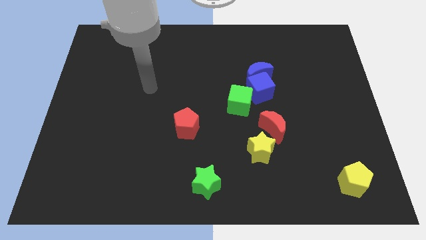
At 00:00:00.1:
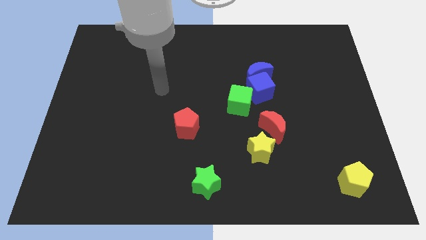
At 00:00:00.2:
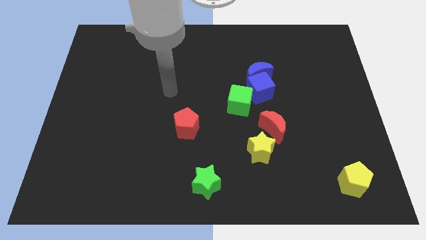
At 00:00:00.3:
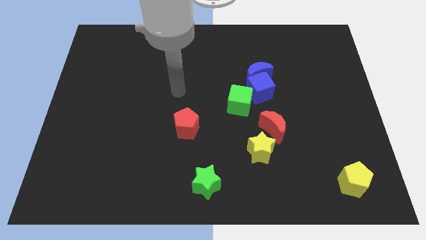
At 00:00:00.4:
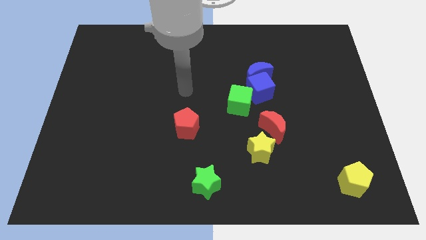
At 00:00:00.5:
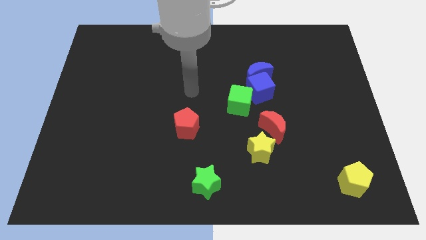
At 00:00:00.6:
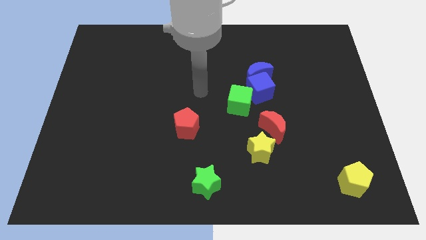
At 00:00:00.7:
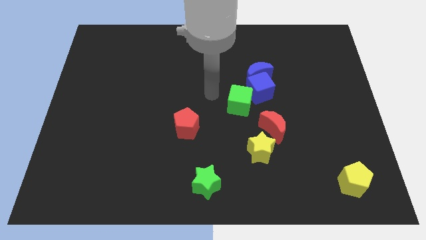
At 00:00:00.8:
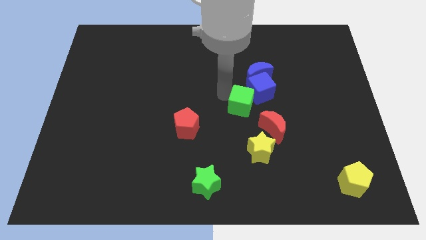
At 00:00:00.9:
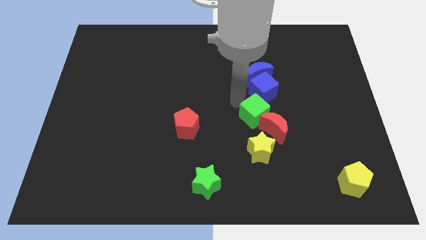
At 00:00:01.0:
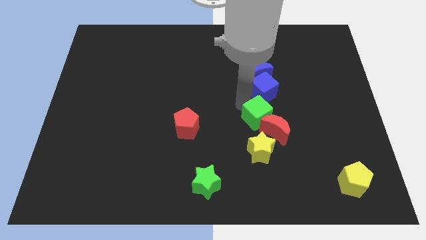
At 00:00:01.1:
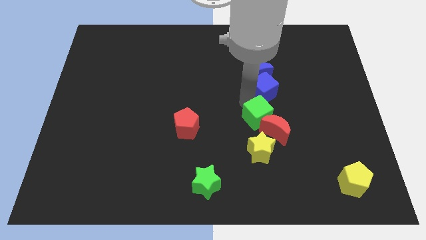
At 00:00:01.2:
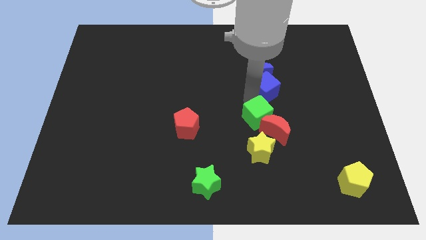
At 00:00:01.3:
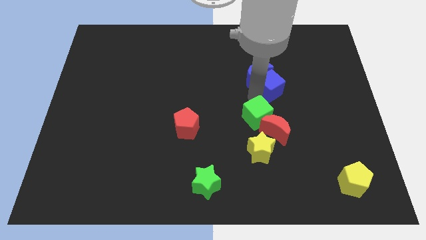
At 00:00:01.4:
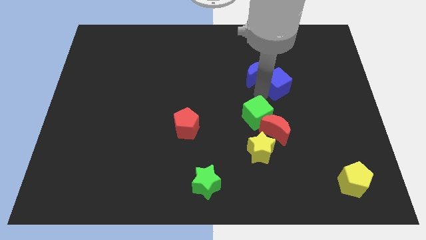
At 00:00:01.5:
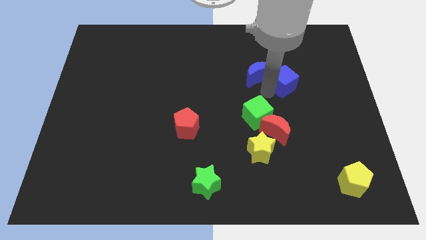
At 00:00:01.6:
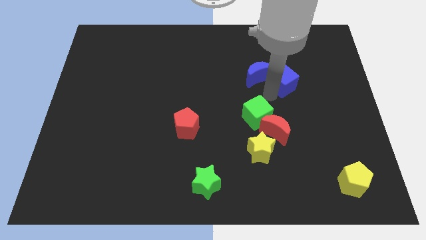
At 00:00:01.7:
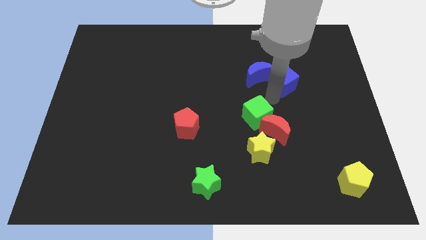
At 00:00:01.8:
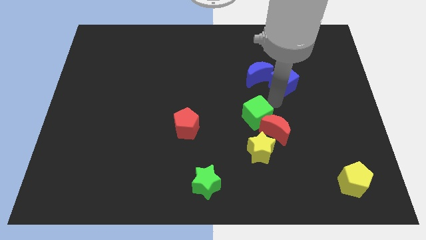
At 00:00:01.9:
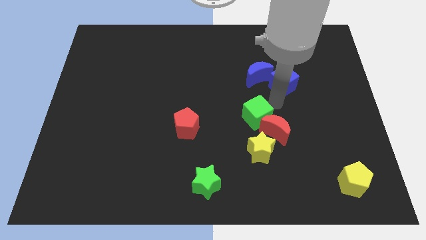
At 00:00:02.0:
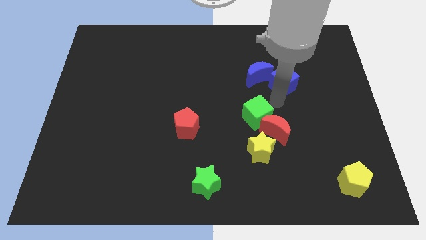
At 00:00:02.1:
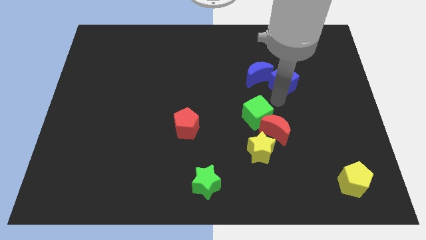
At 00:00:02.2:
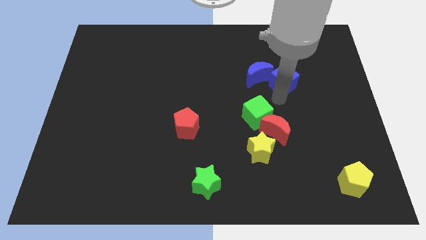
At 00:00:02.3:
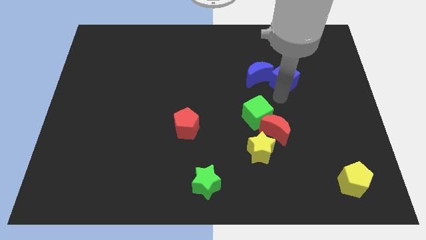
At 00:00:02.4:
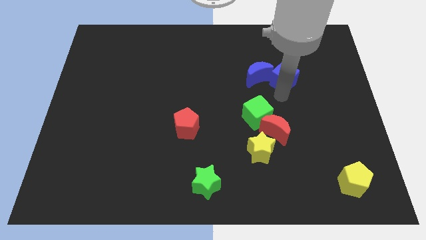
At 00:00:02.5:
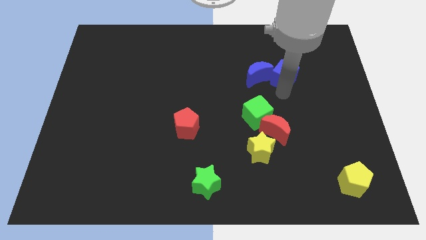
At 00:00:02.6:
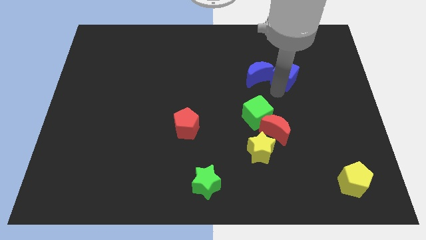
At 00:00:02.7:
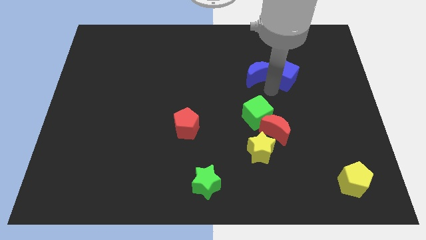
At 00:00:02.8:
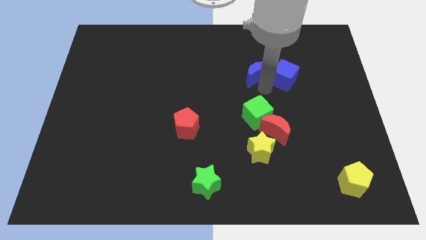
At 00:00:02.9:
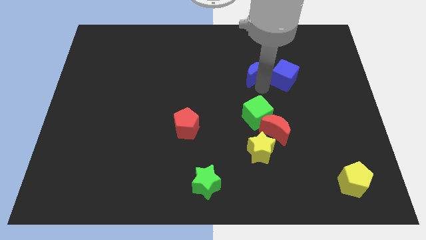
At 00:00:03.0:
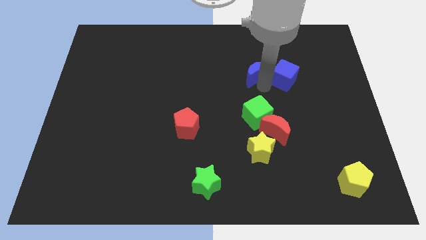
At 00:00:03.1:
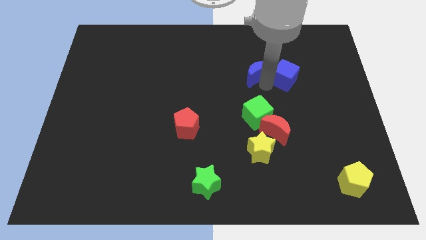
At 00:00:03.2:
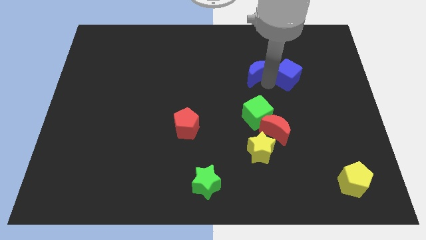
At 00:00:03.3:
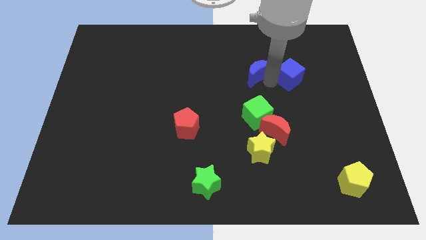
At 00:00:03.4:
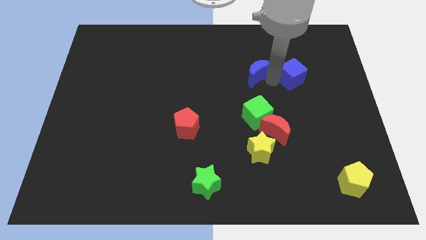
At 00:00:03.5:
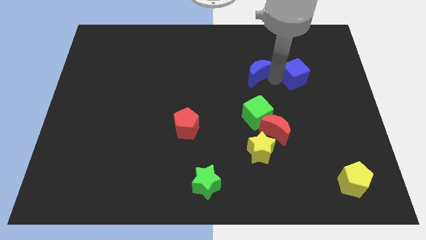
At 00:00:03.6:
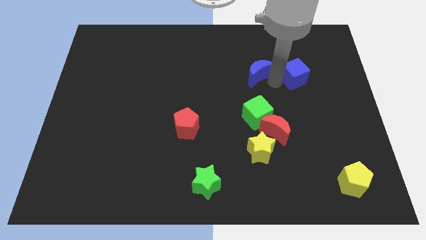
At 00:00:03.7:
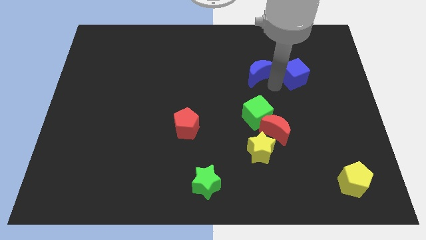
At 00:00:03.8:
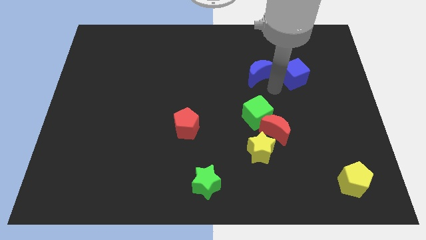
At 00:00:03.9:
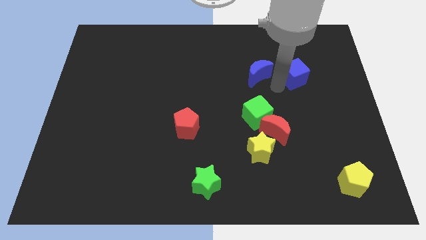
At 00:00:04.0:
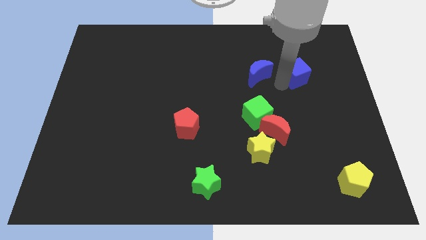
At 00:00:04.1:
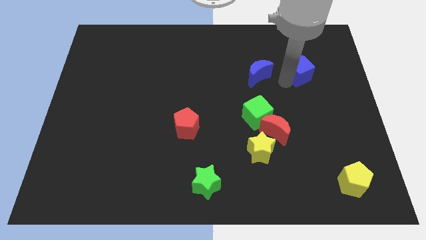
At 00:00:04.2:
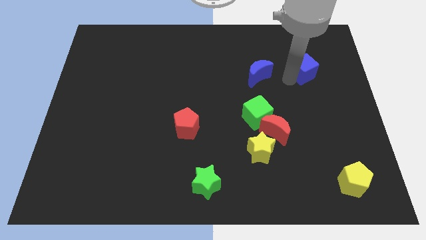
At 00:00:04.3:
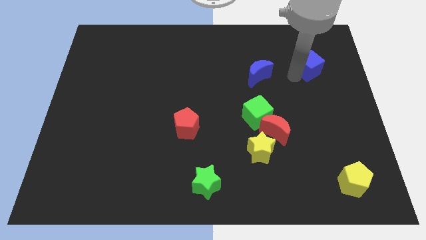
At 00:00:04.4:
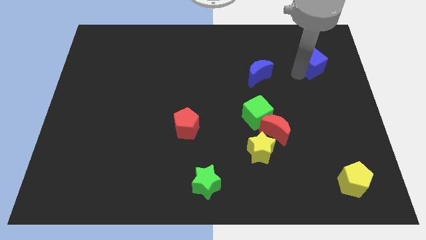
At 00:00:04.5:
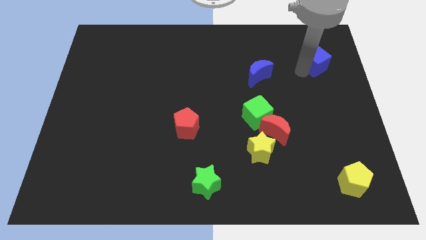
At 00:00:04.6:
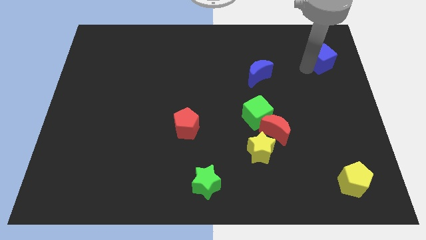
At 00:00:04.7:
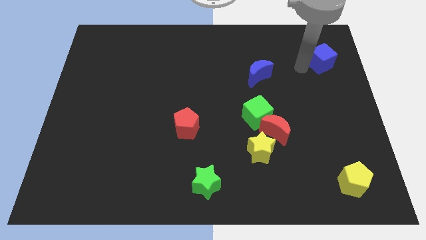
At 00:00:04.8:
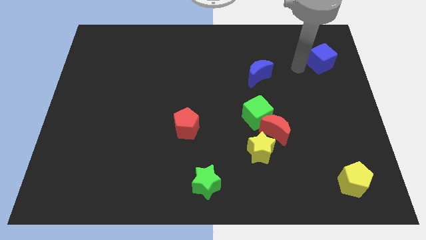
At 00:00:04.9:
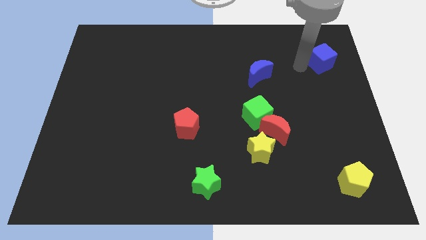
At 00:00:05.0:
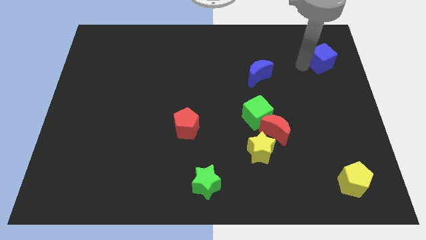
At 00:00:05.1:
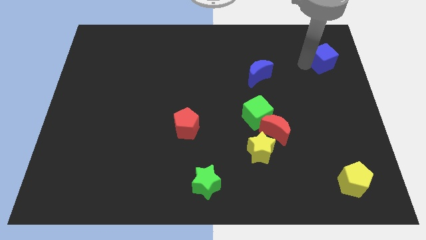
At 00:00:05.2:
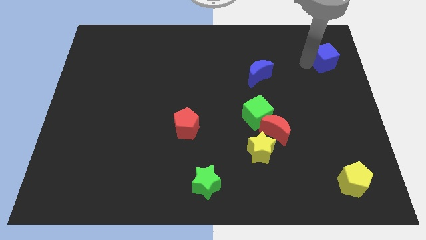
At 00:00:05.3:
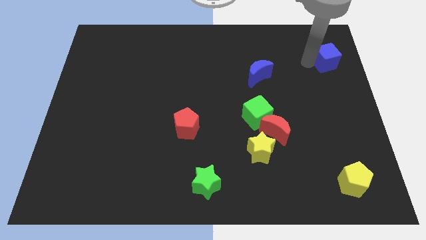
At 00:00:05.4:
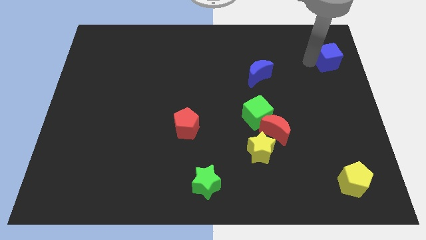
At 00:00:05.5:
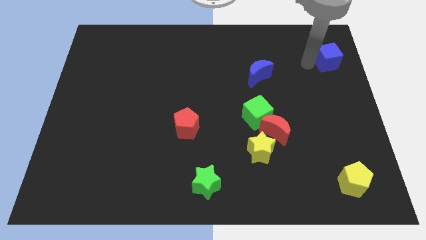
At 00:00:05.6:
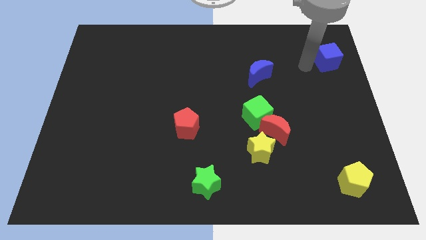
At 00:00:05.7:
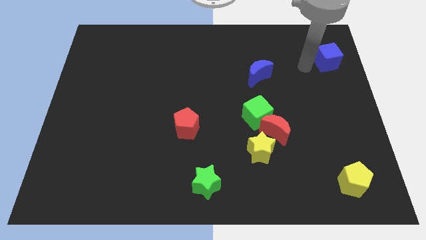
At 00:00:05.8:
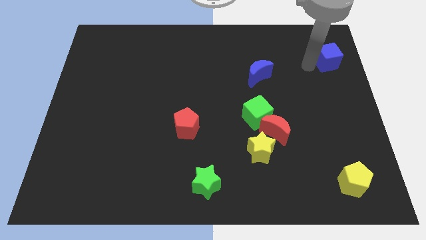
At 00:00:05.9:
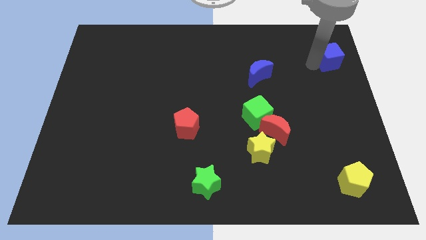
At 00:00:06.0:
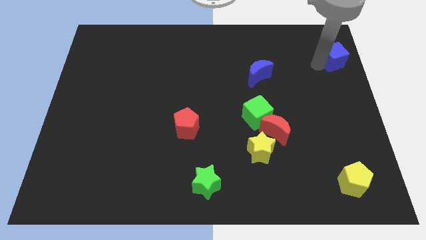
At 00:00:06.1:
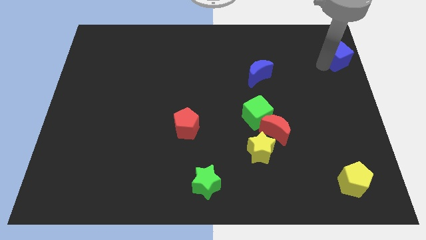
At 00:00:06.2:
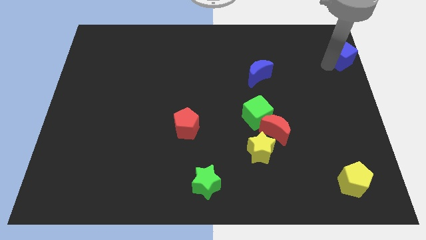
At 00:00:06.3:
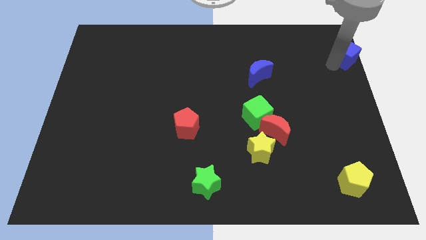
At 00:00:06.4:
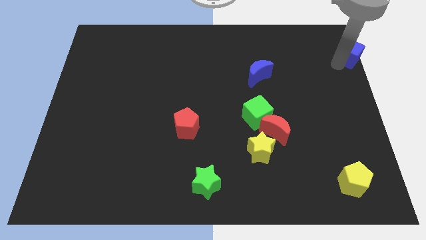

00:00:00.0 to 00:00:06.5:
push the blue cube to the top right corner

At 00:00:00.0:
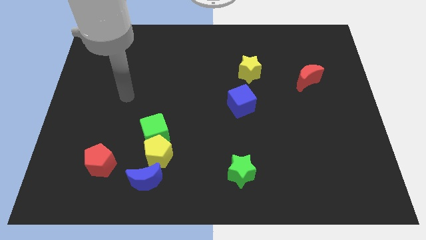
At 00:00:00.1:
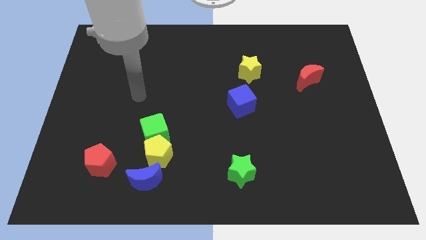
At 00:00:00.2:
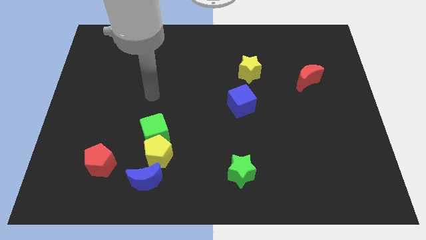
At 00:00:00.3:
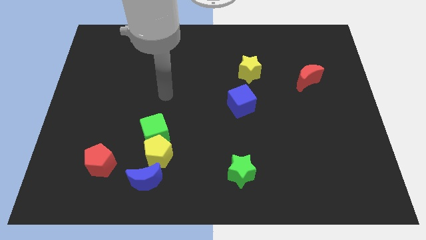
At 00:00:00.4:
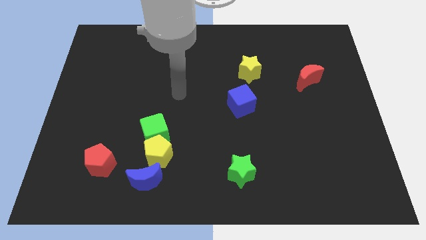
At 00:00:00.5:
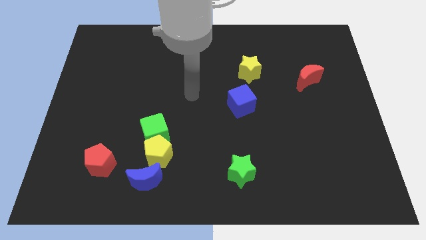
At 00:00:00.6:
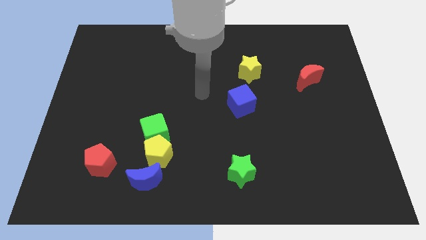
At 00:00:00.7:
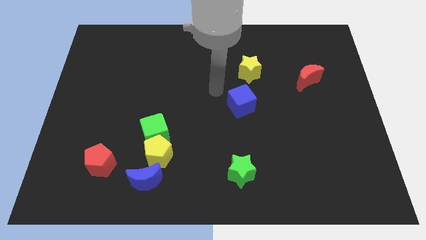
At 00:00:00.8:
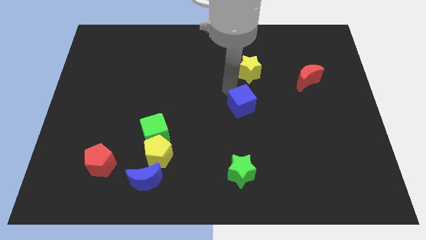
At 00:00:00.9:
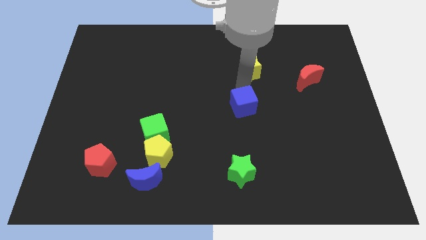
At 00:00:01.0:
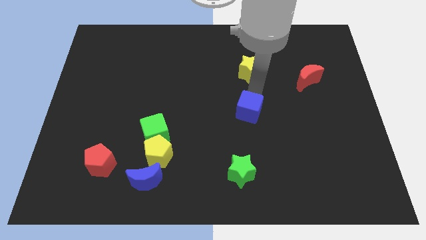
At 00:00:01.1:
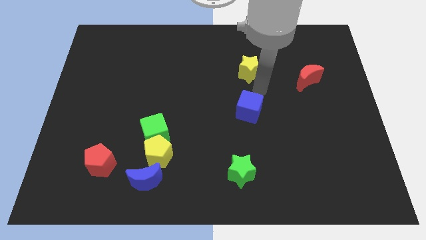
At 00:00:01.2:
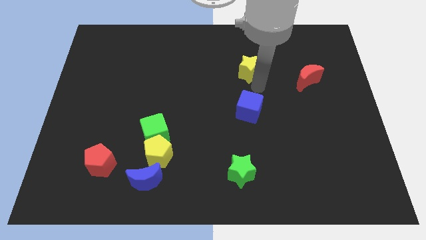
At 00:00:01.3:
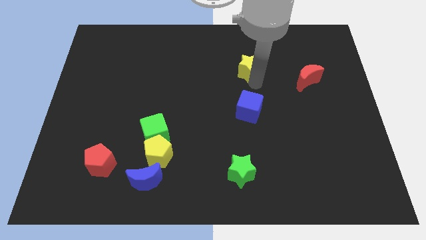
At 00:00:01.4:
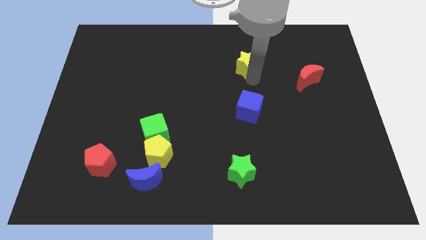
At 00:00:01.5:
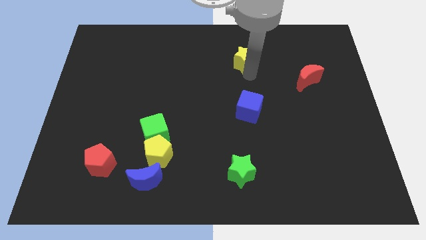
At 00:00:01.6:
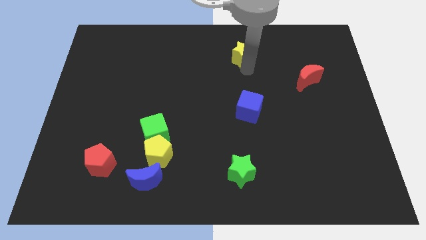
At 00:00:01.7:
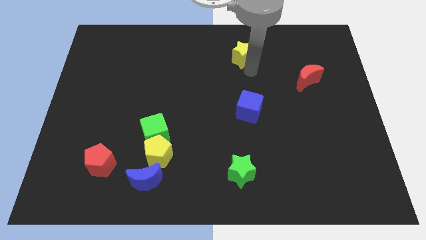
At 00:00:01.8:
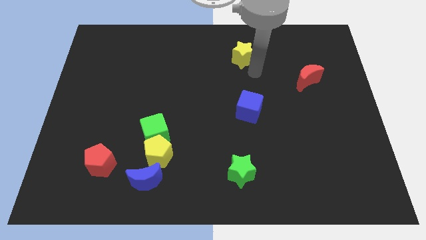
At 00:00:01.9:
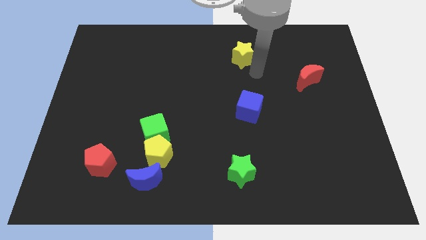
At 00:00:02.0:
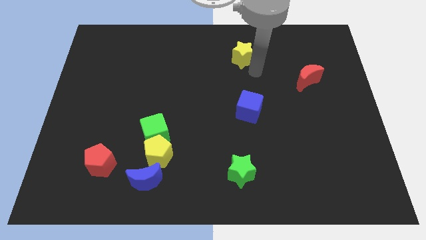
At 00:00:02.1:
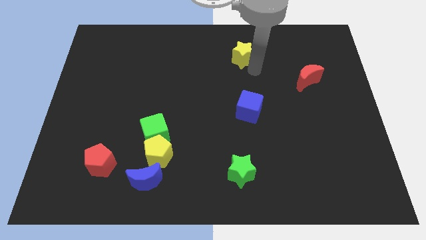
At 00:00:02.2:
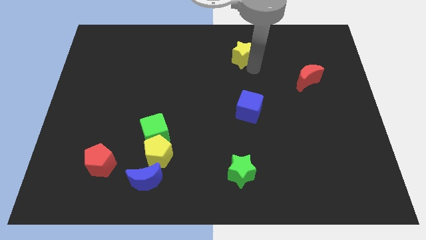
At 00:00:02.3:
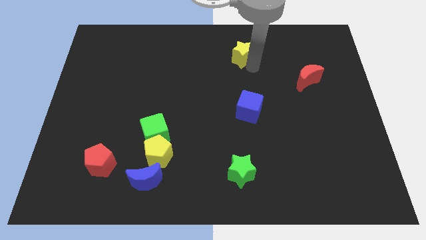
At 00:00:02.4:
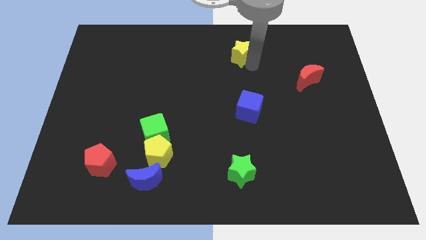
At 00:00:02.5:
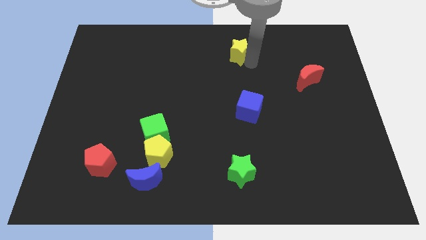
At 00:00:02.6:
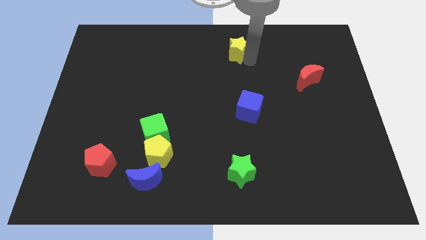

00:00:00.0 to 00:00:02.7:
move the yellow star to the top
